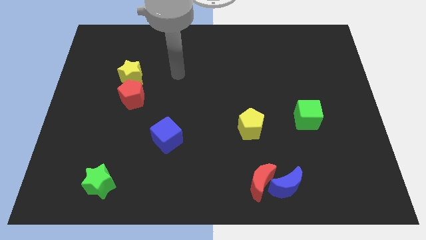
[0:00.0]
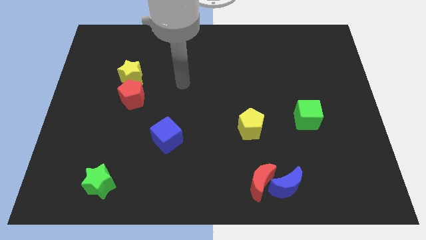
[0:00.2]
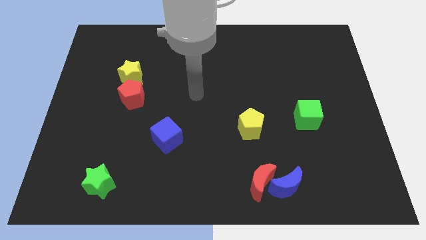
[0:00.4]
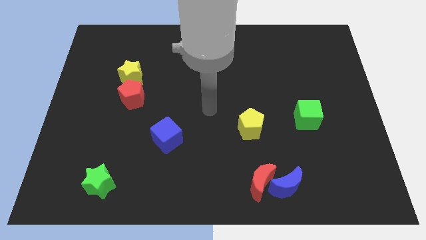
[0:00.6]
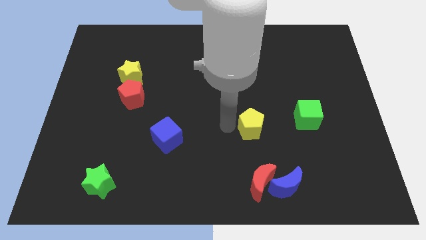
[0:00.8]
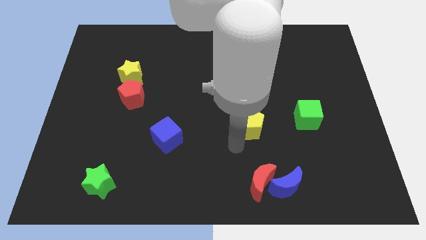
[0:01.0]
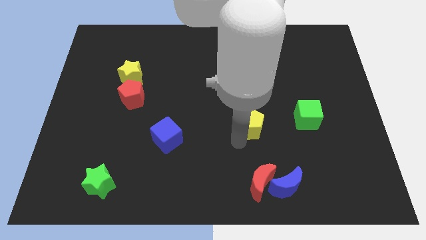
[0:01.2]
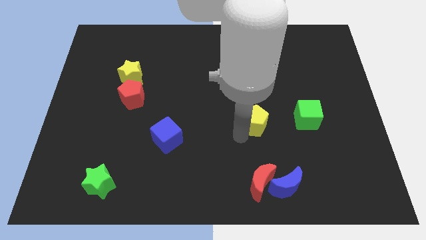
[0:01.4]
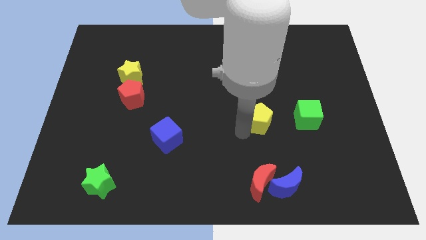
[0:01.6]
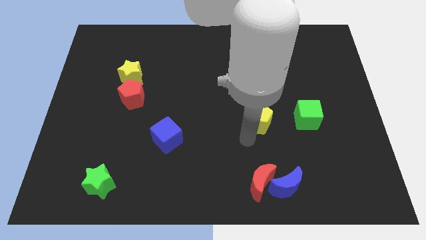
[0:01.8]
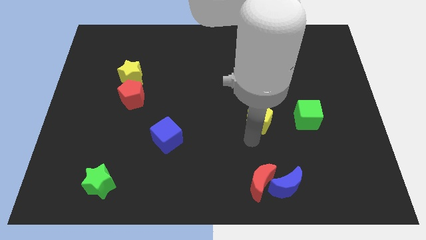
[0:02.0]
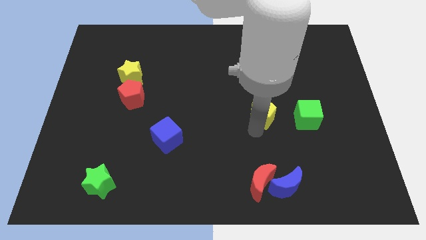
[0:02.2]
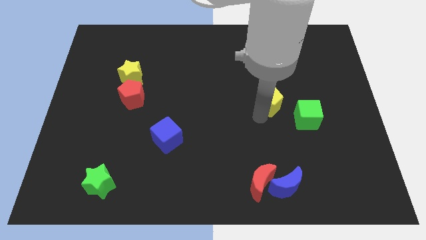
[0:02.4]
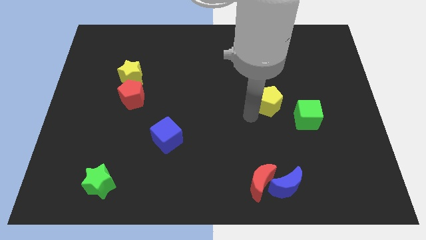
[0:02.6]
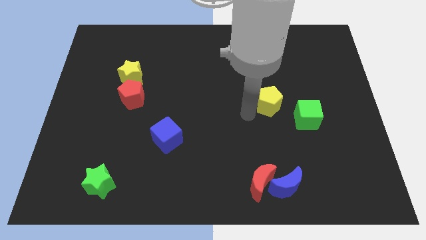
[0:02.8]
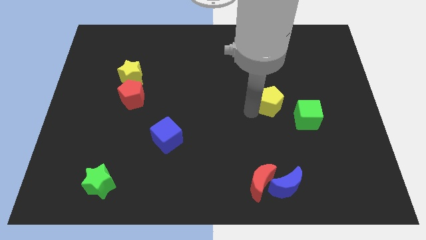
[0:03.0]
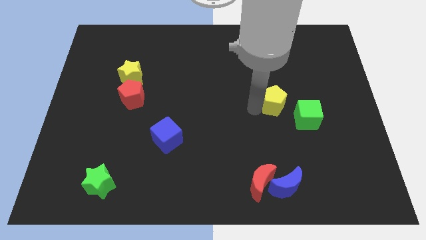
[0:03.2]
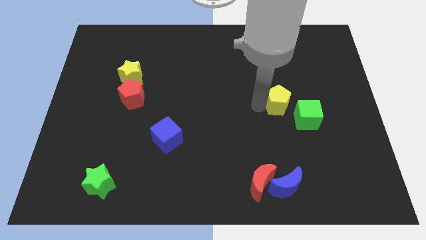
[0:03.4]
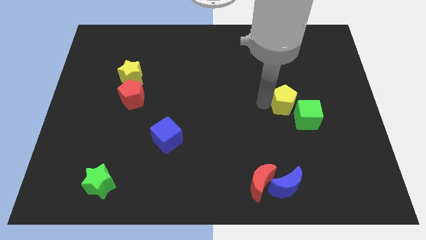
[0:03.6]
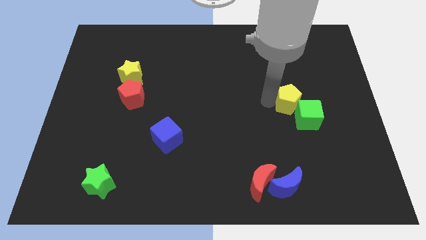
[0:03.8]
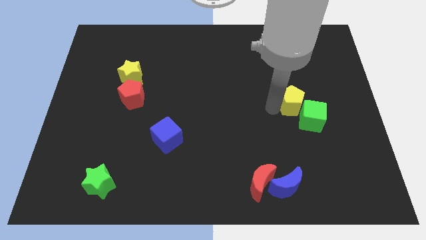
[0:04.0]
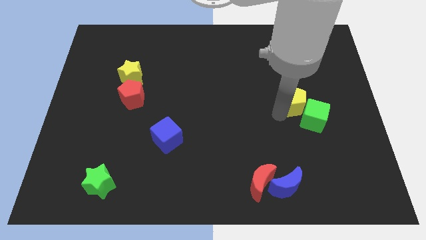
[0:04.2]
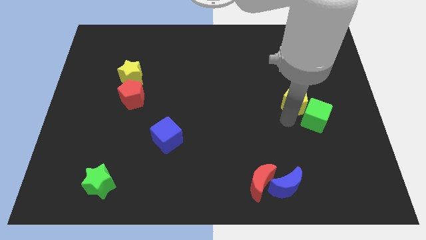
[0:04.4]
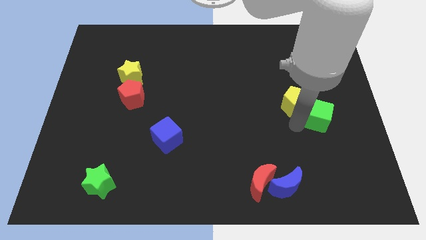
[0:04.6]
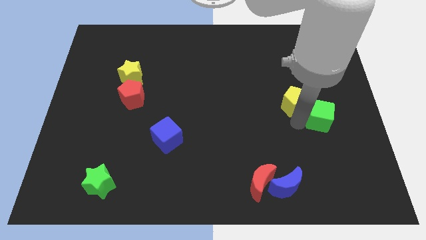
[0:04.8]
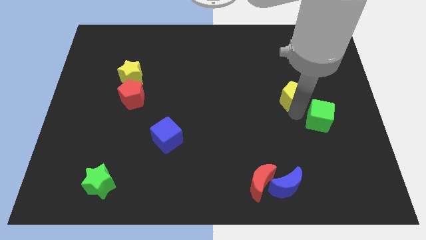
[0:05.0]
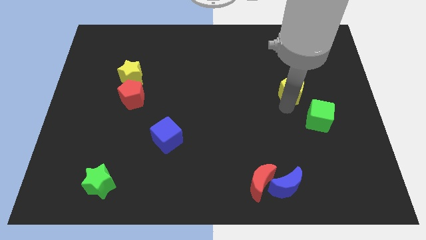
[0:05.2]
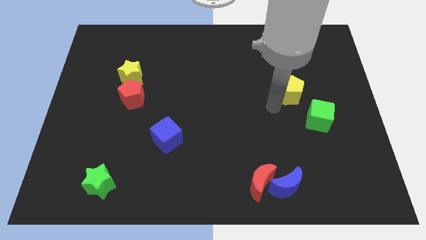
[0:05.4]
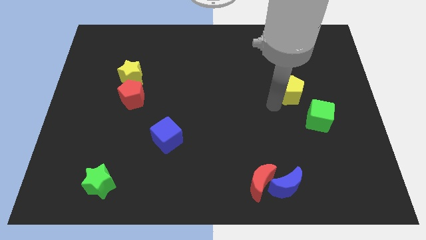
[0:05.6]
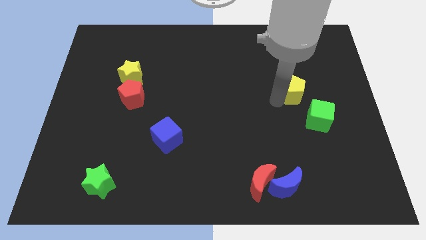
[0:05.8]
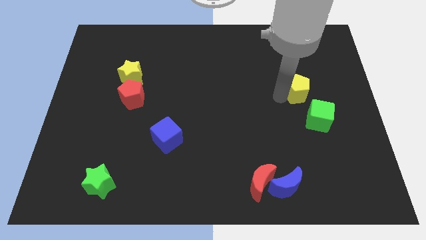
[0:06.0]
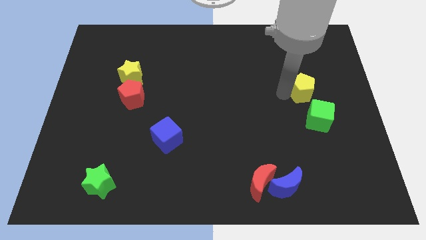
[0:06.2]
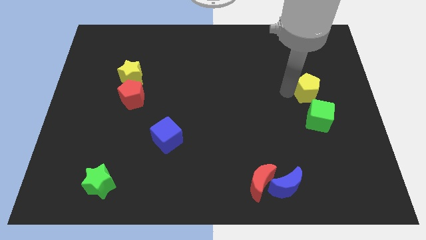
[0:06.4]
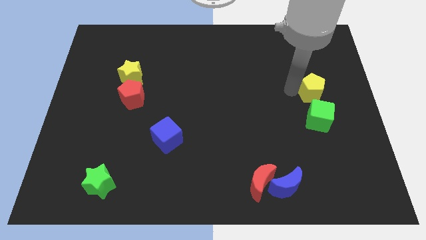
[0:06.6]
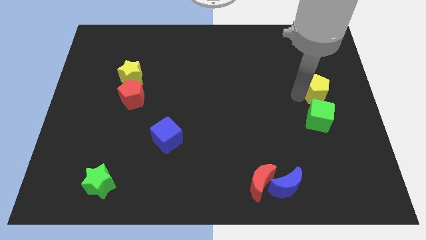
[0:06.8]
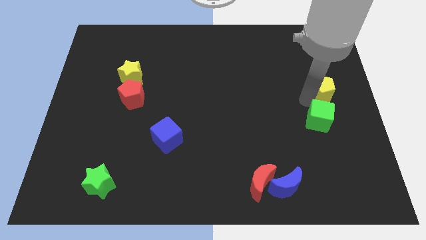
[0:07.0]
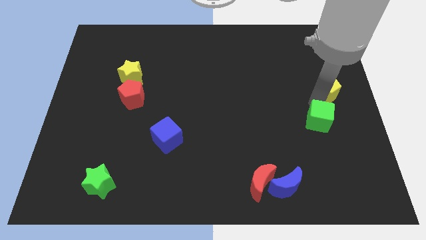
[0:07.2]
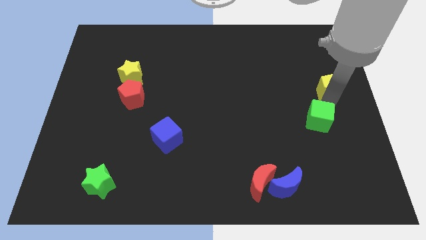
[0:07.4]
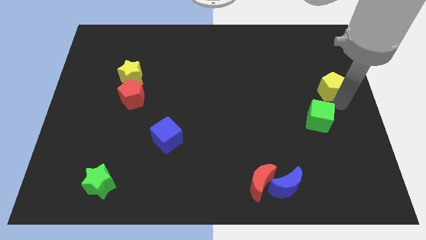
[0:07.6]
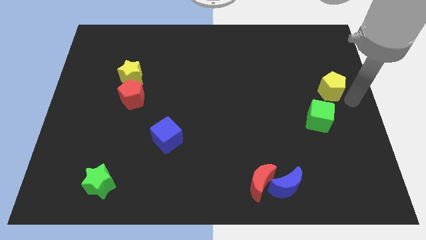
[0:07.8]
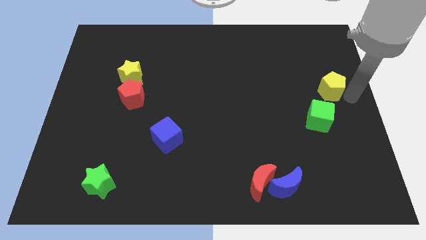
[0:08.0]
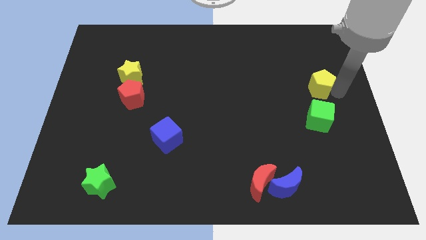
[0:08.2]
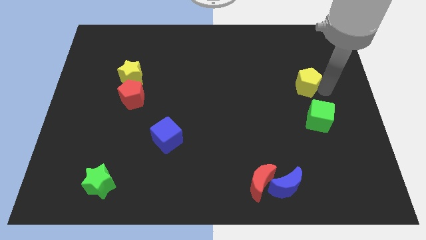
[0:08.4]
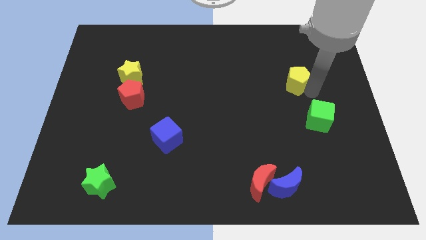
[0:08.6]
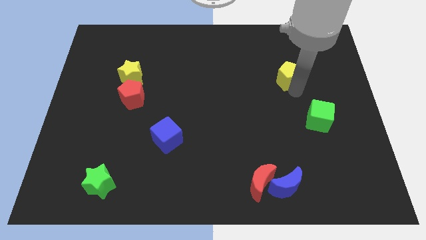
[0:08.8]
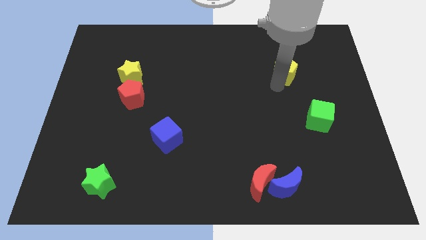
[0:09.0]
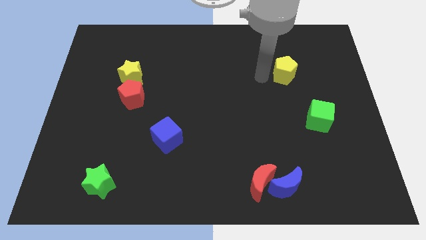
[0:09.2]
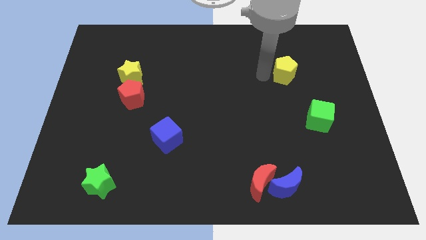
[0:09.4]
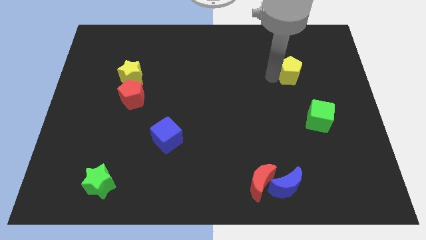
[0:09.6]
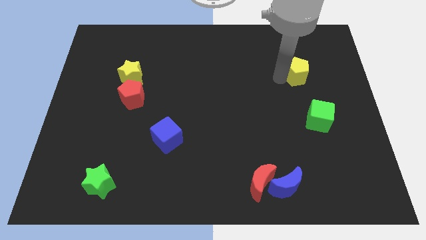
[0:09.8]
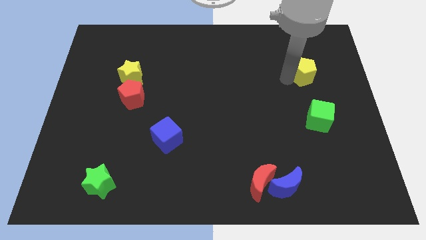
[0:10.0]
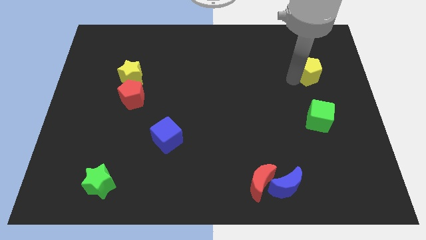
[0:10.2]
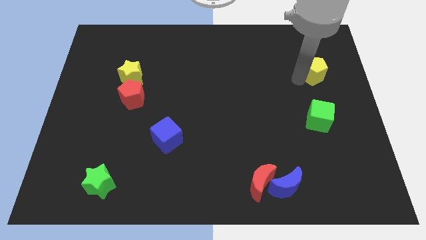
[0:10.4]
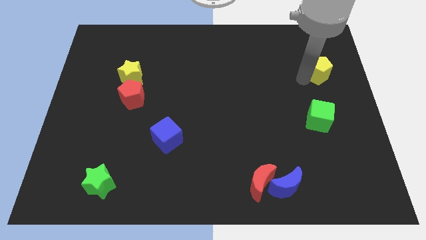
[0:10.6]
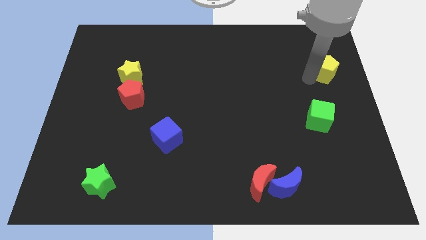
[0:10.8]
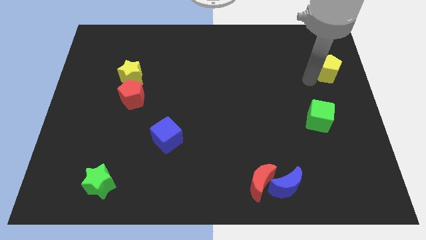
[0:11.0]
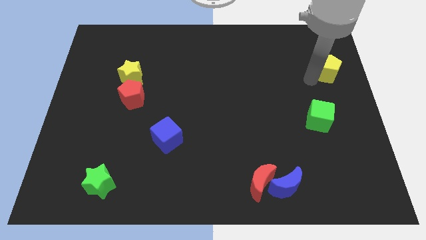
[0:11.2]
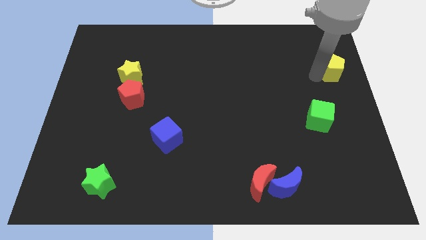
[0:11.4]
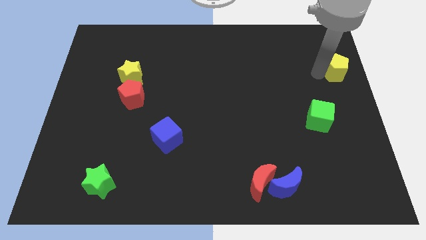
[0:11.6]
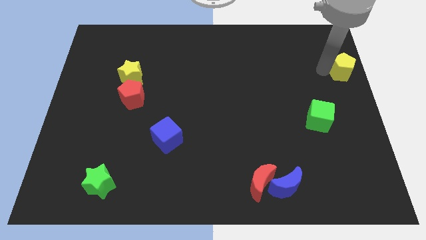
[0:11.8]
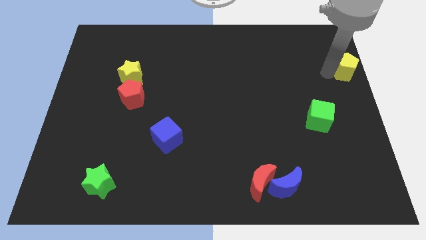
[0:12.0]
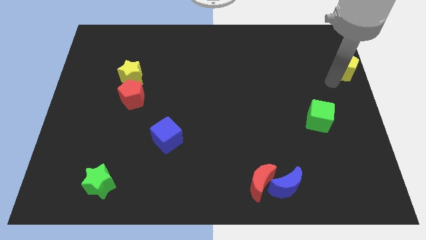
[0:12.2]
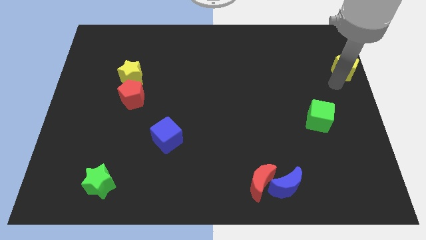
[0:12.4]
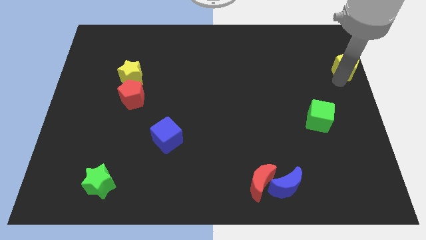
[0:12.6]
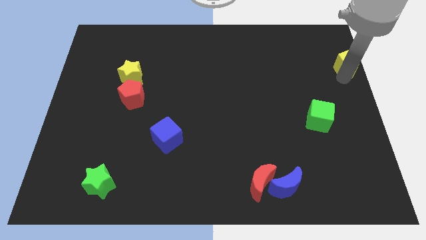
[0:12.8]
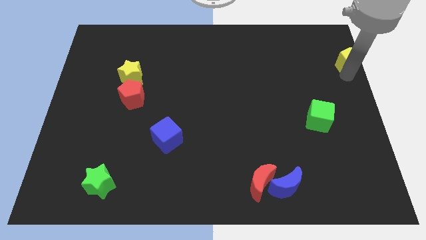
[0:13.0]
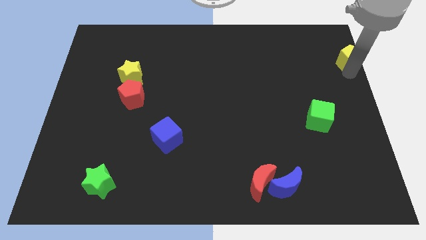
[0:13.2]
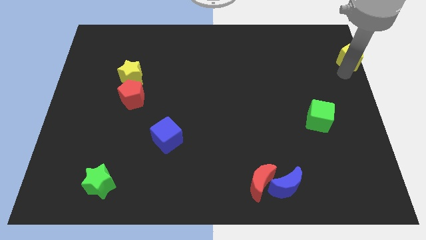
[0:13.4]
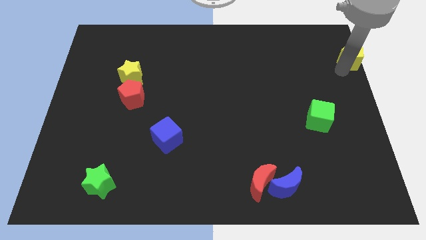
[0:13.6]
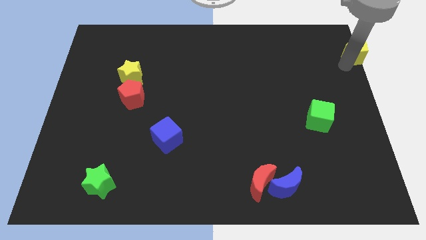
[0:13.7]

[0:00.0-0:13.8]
push the yellow pentagon to the top right corner
